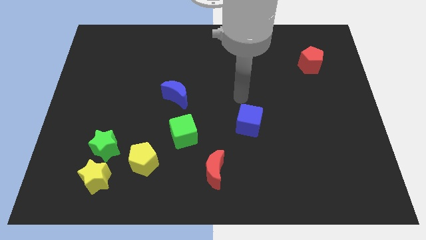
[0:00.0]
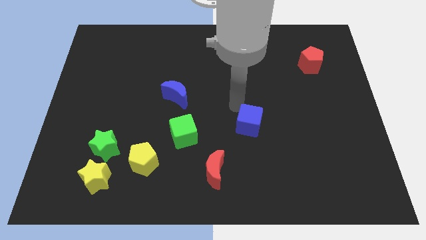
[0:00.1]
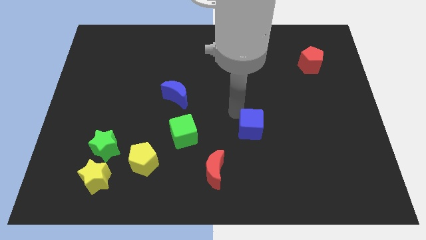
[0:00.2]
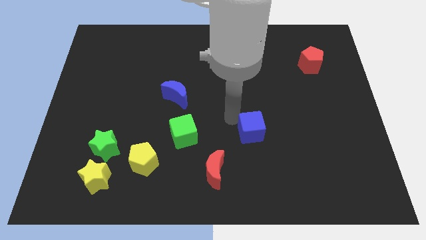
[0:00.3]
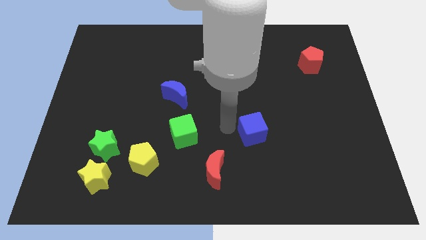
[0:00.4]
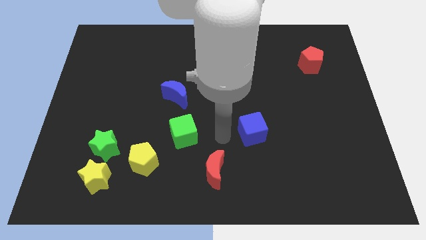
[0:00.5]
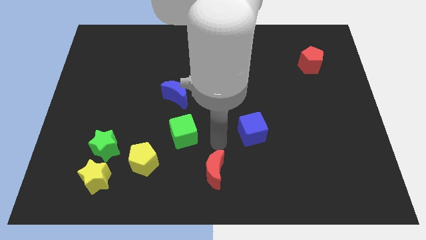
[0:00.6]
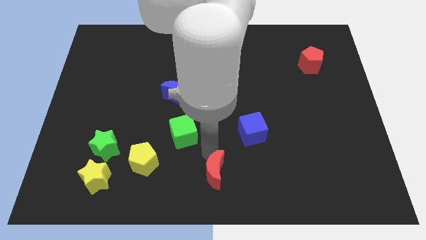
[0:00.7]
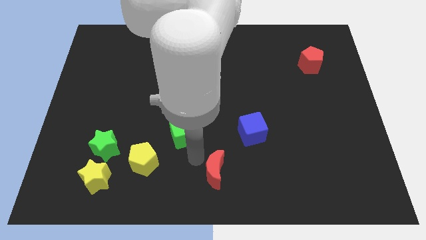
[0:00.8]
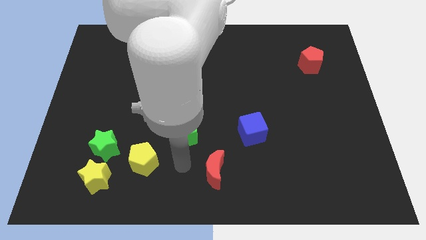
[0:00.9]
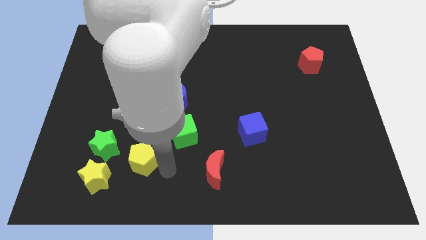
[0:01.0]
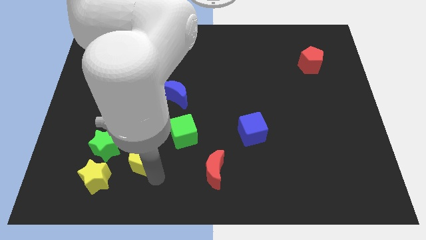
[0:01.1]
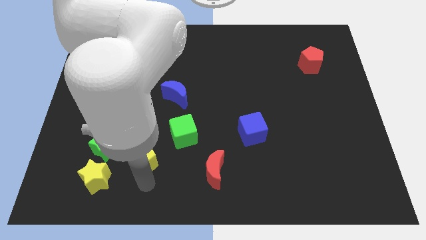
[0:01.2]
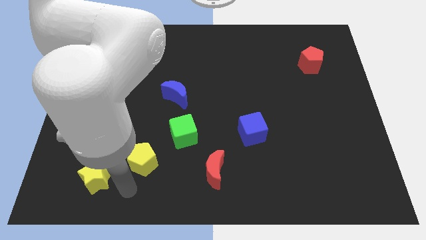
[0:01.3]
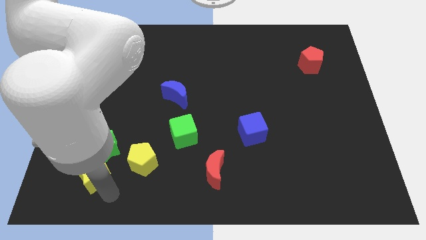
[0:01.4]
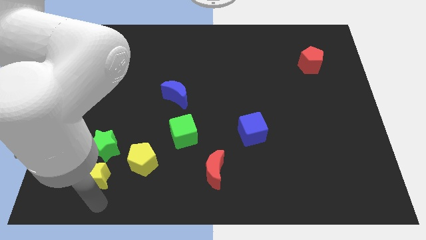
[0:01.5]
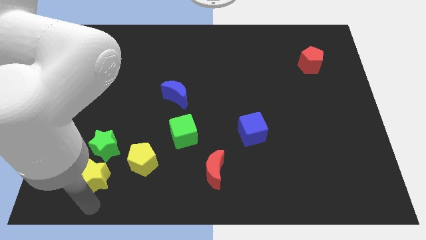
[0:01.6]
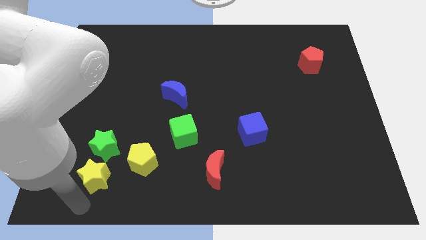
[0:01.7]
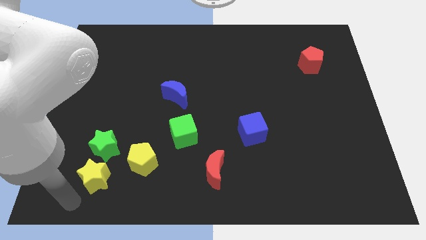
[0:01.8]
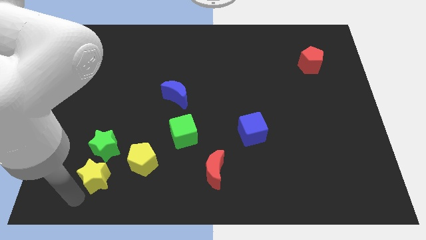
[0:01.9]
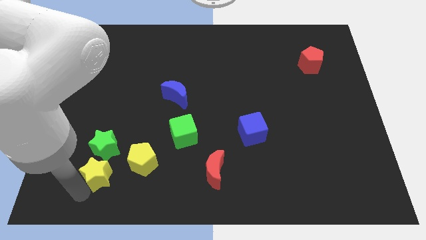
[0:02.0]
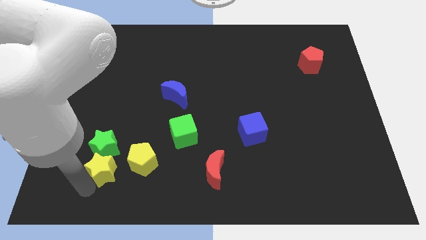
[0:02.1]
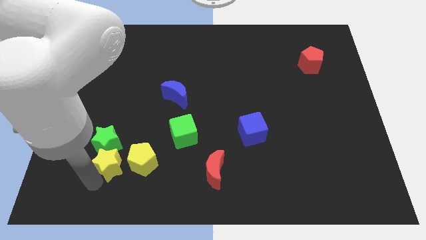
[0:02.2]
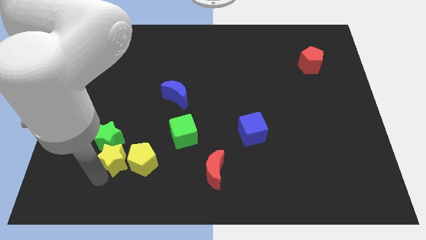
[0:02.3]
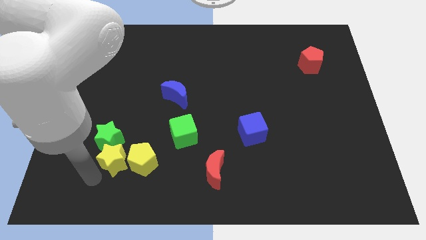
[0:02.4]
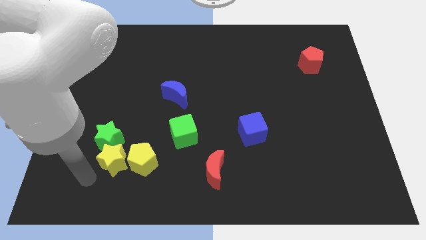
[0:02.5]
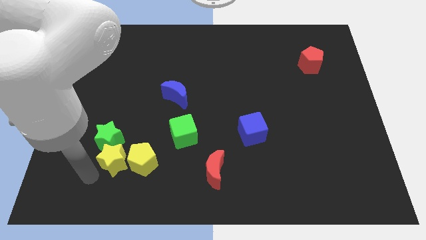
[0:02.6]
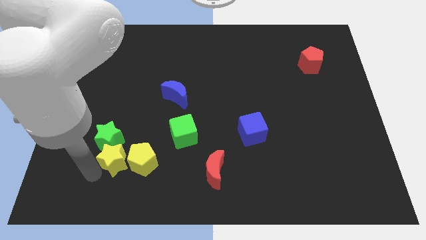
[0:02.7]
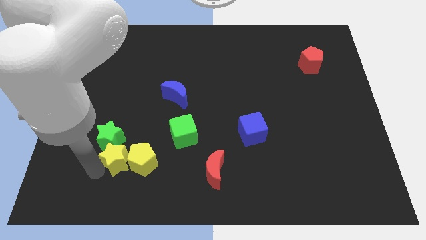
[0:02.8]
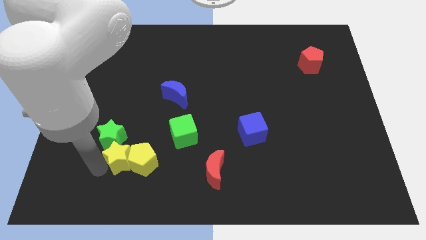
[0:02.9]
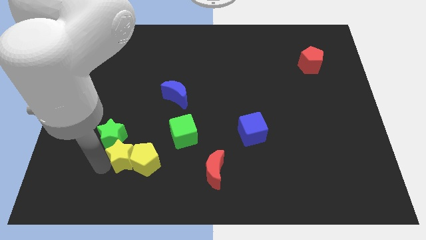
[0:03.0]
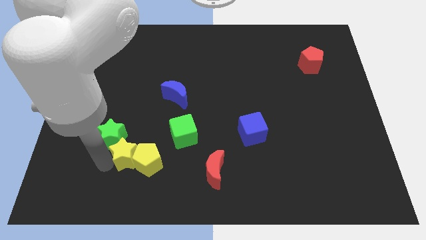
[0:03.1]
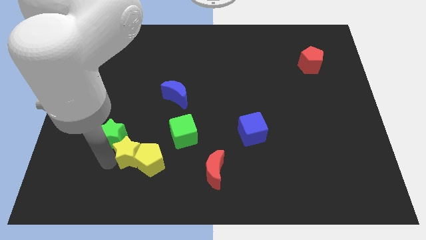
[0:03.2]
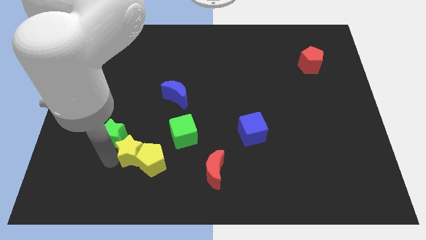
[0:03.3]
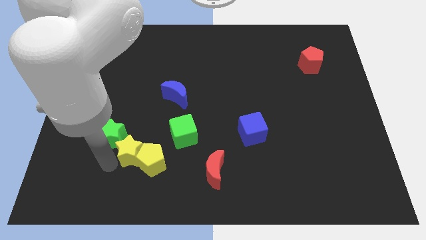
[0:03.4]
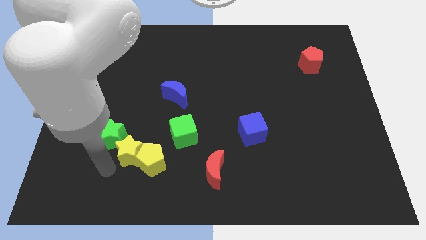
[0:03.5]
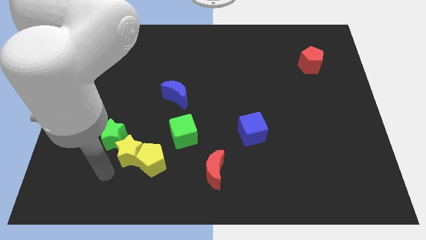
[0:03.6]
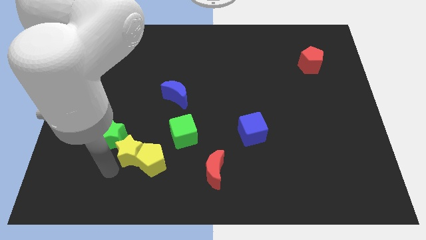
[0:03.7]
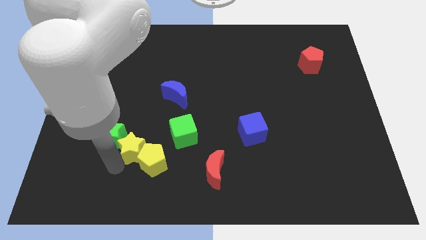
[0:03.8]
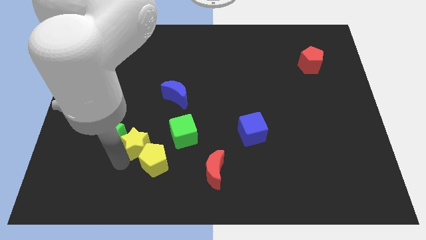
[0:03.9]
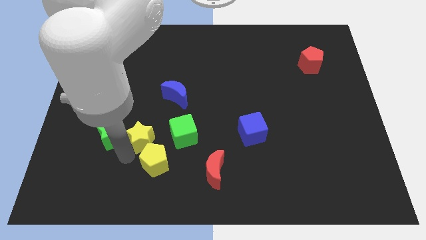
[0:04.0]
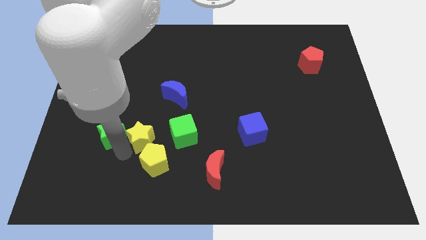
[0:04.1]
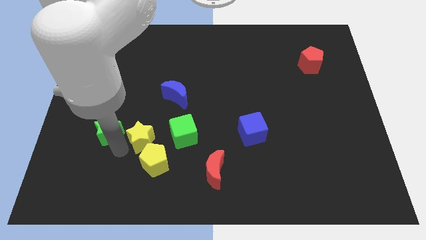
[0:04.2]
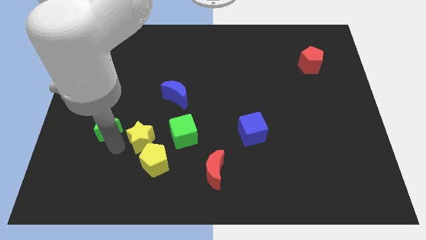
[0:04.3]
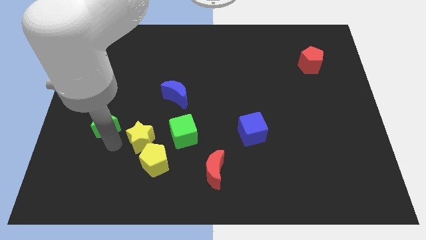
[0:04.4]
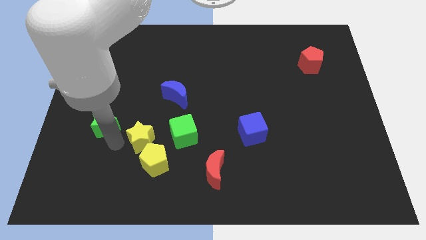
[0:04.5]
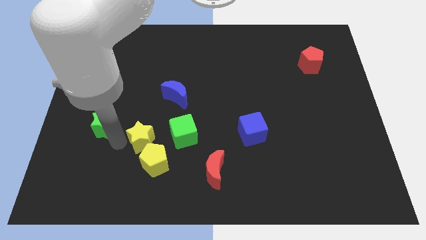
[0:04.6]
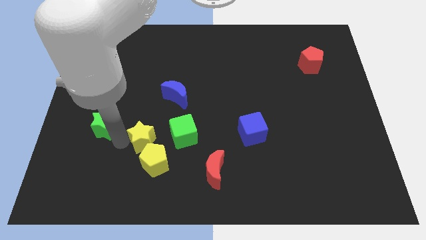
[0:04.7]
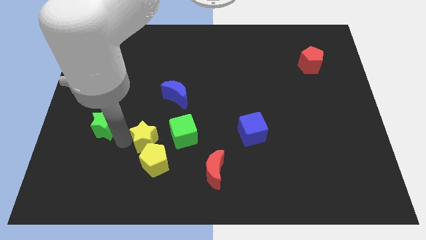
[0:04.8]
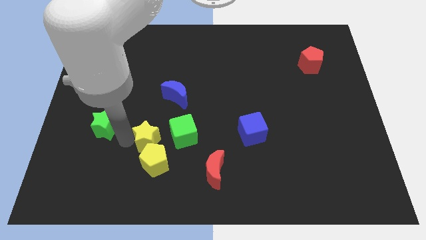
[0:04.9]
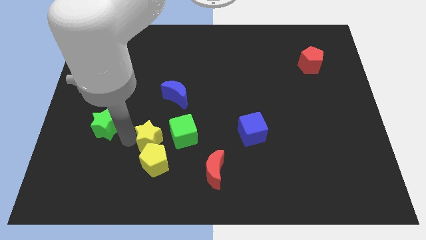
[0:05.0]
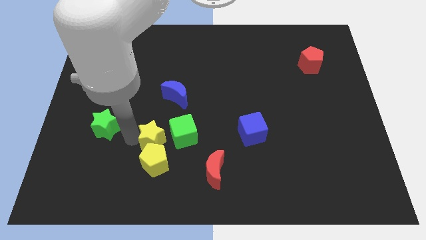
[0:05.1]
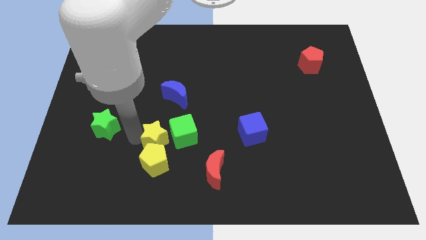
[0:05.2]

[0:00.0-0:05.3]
slide the yellow star to the green cube

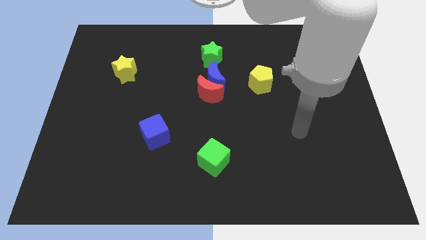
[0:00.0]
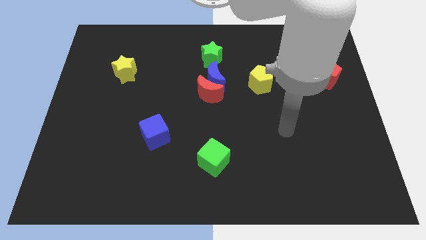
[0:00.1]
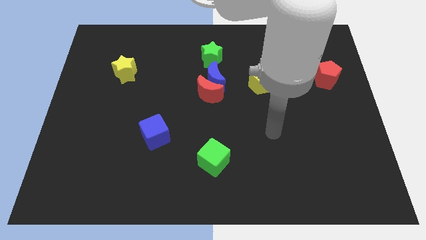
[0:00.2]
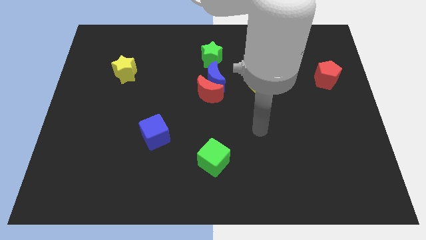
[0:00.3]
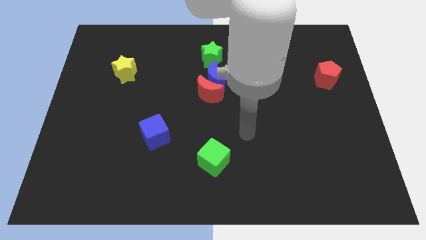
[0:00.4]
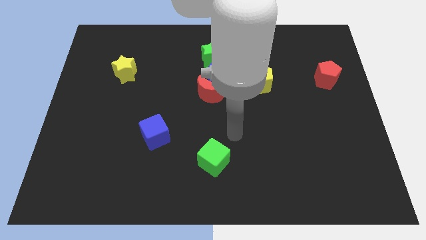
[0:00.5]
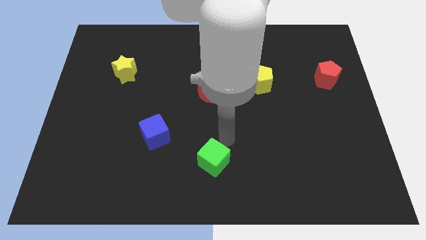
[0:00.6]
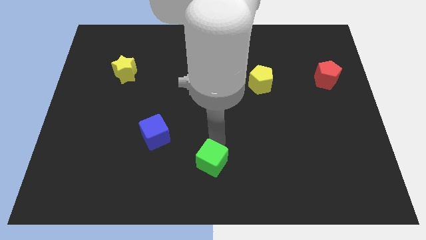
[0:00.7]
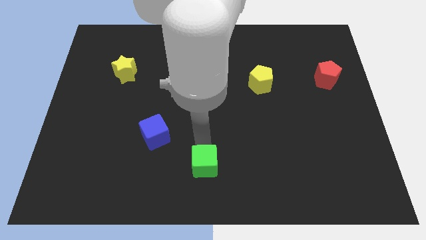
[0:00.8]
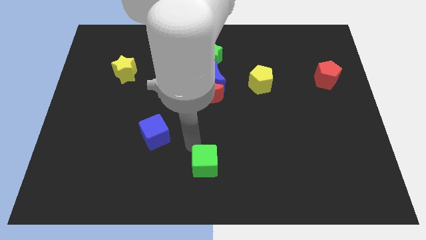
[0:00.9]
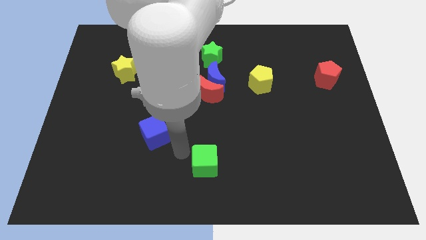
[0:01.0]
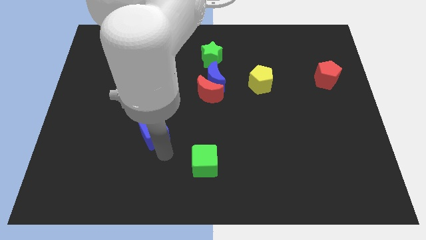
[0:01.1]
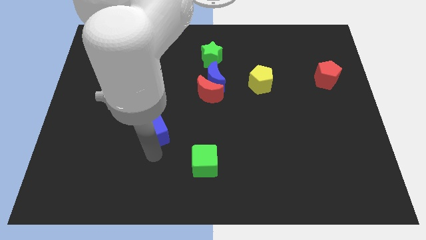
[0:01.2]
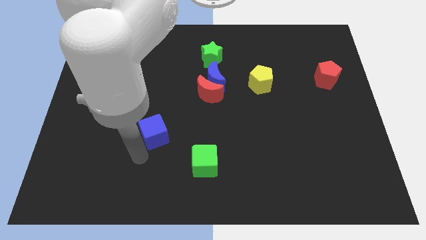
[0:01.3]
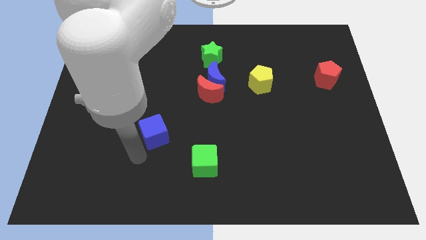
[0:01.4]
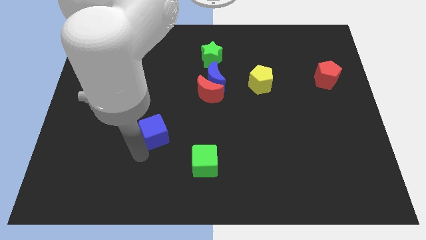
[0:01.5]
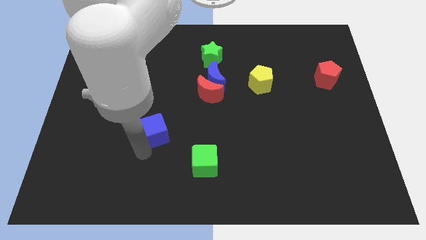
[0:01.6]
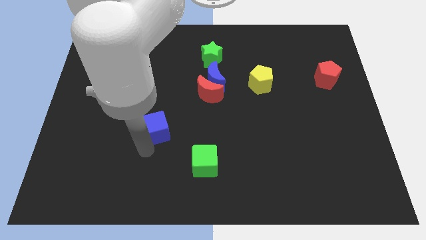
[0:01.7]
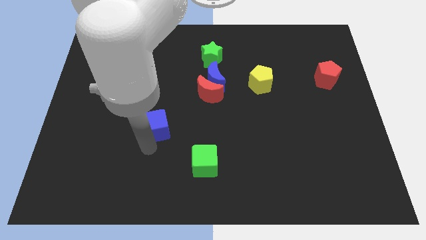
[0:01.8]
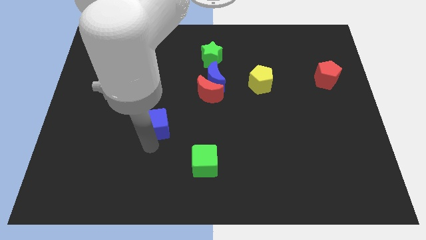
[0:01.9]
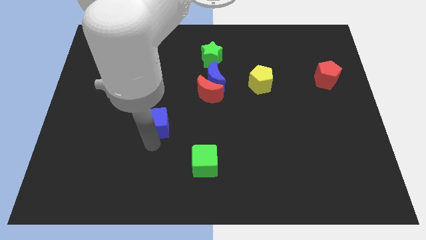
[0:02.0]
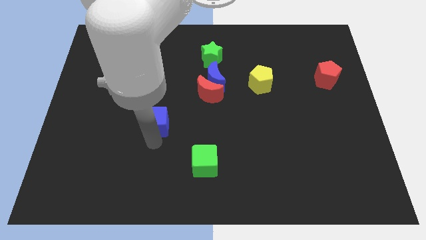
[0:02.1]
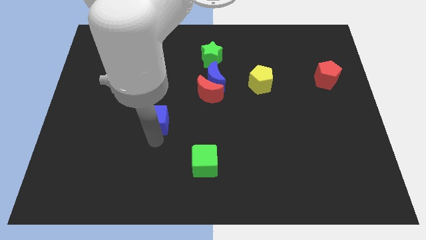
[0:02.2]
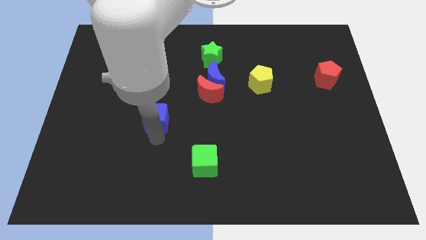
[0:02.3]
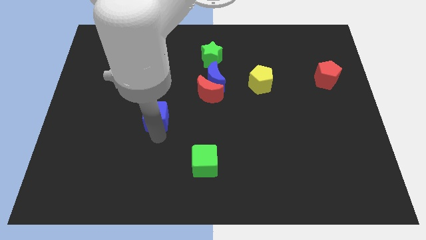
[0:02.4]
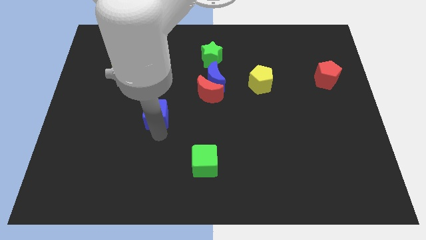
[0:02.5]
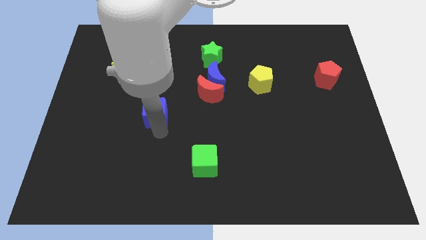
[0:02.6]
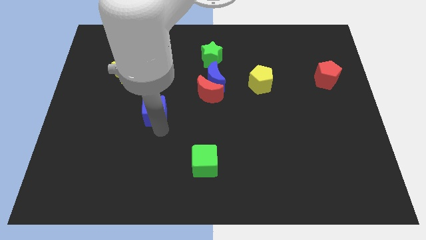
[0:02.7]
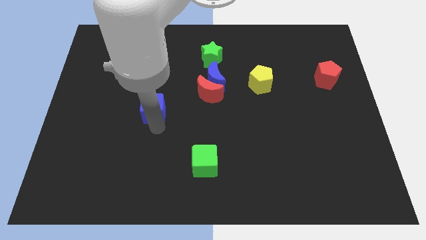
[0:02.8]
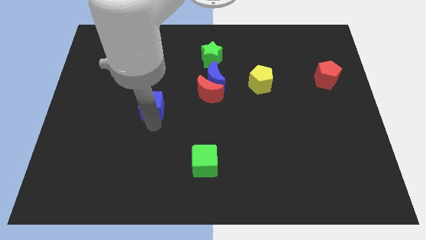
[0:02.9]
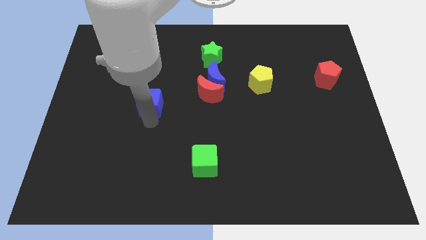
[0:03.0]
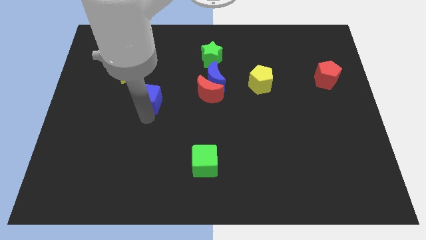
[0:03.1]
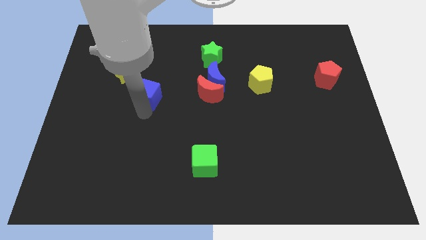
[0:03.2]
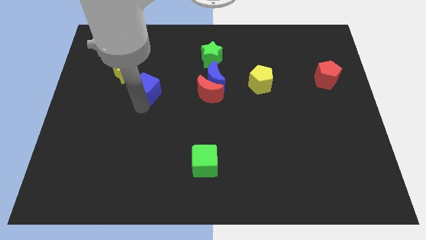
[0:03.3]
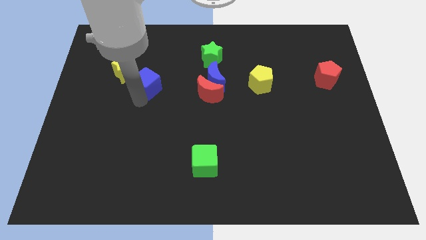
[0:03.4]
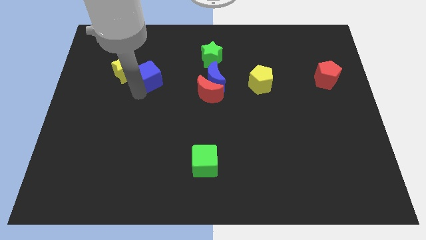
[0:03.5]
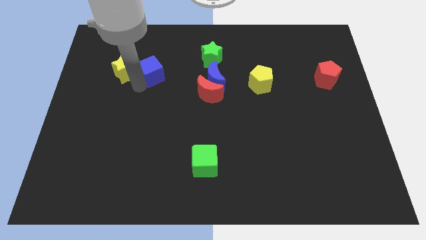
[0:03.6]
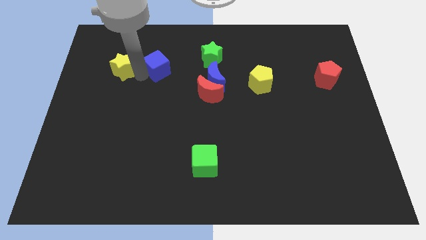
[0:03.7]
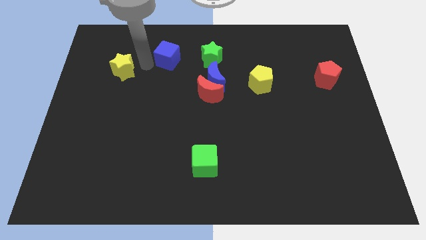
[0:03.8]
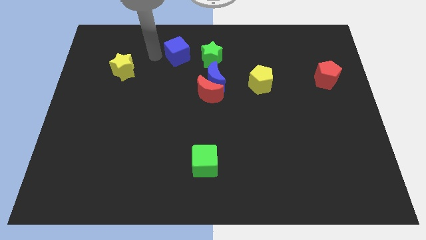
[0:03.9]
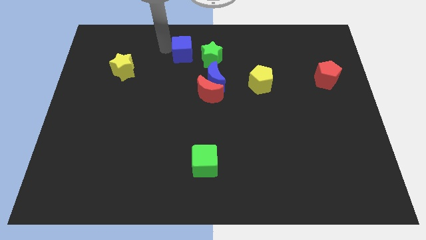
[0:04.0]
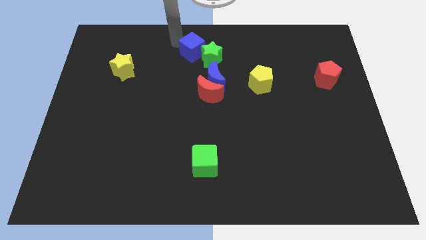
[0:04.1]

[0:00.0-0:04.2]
put the blue cube towards the green star
